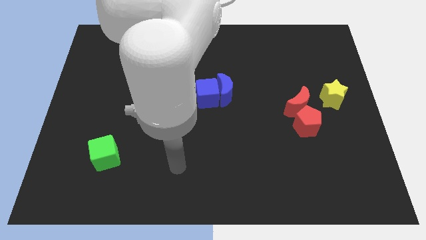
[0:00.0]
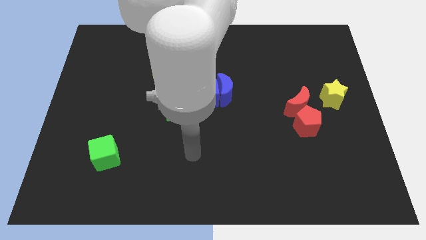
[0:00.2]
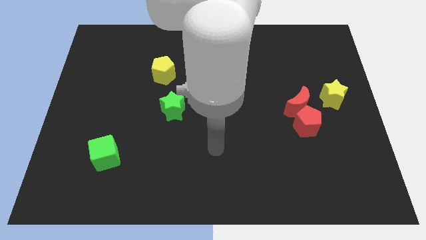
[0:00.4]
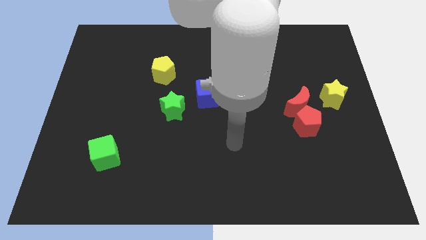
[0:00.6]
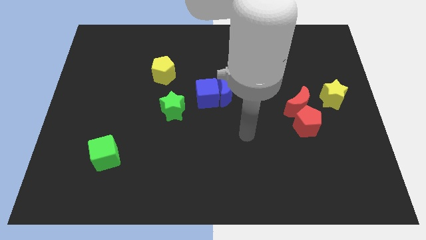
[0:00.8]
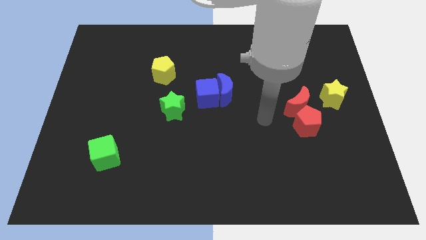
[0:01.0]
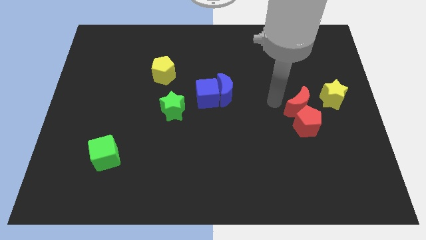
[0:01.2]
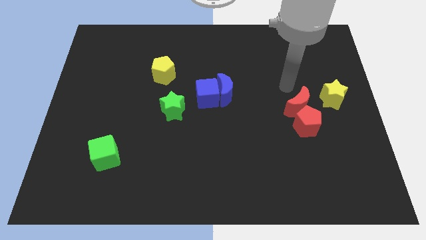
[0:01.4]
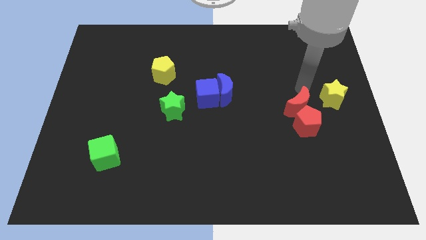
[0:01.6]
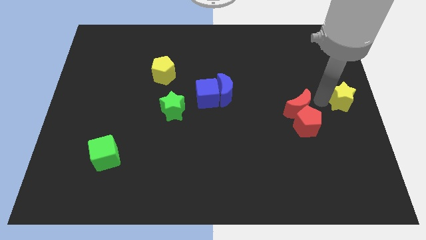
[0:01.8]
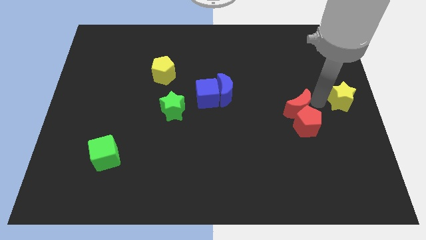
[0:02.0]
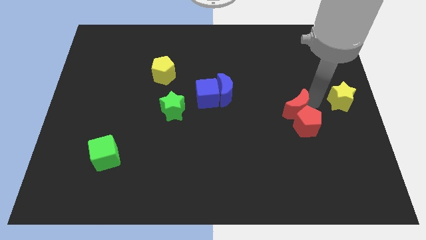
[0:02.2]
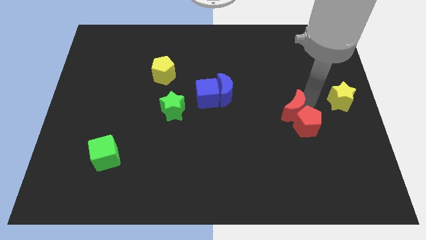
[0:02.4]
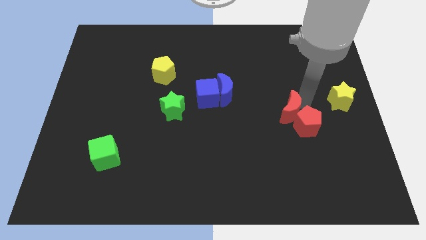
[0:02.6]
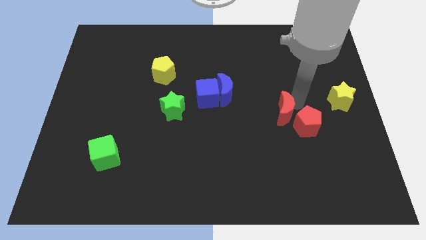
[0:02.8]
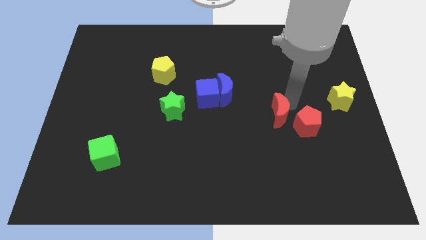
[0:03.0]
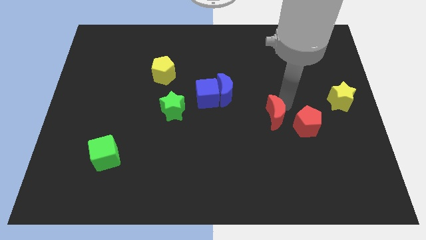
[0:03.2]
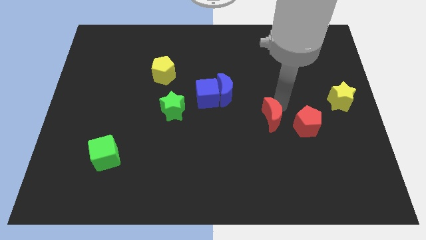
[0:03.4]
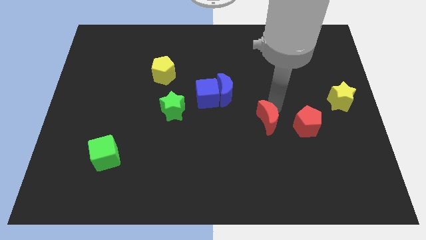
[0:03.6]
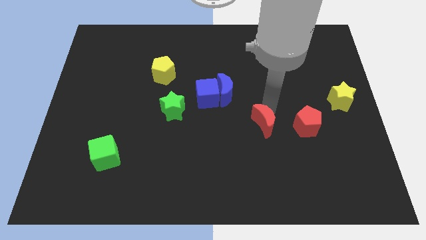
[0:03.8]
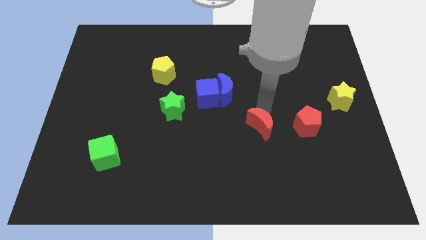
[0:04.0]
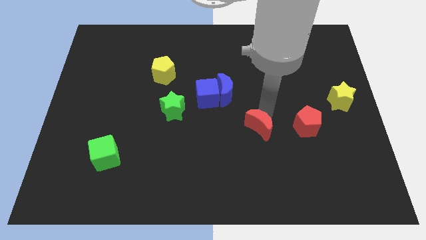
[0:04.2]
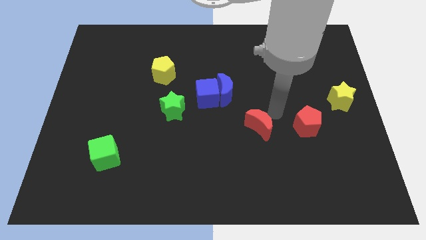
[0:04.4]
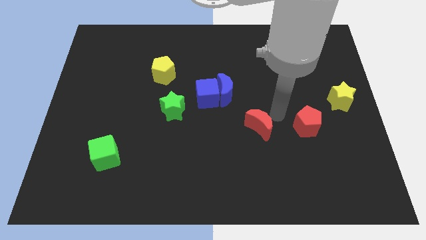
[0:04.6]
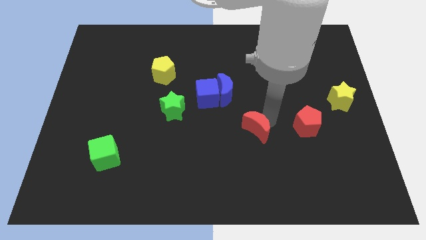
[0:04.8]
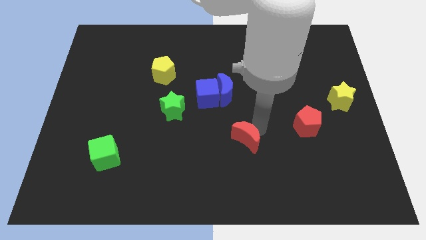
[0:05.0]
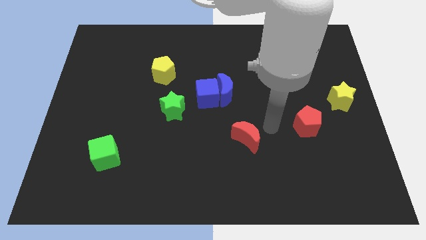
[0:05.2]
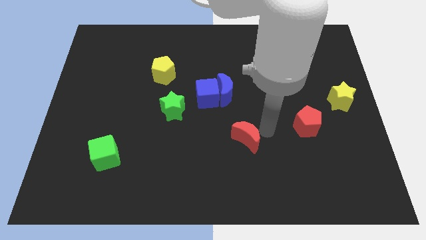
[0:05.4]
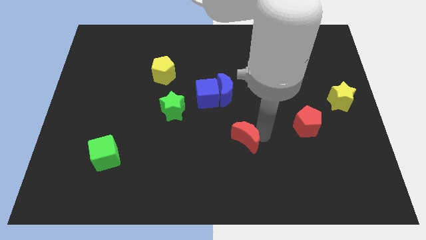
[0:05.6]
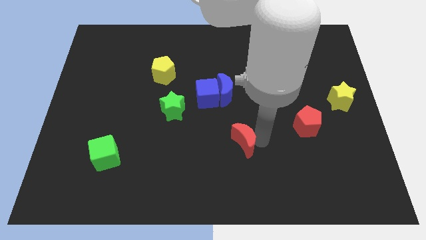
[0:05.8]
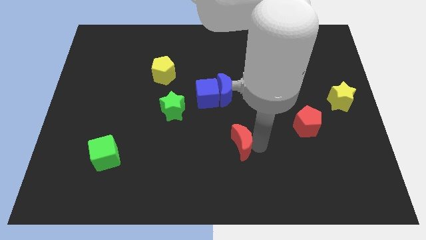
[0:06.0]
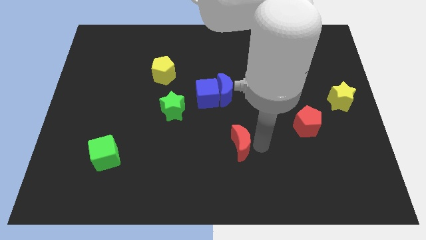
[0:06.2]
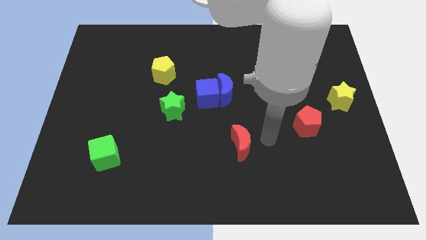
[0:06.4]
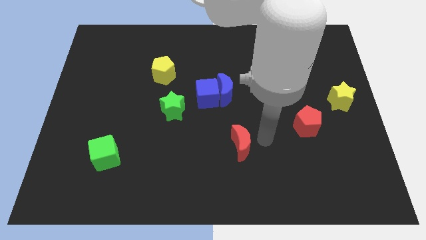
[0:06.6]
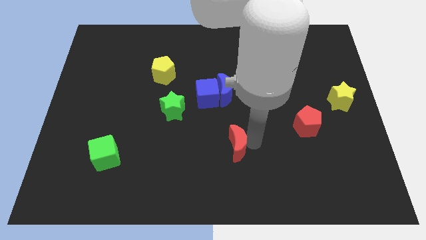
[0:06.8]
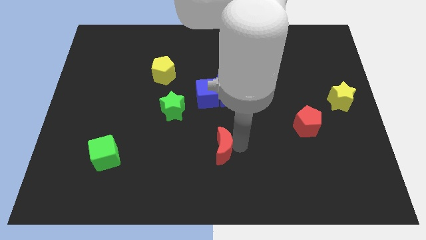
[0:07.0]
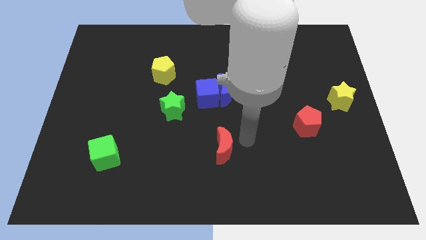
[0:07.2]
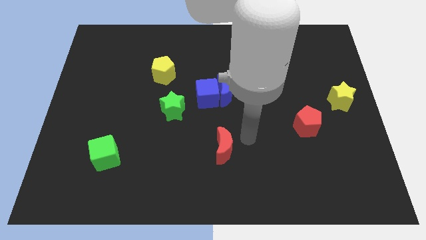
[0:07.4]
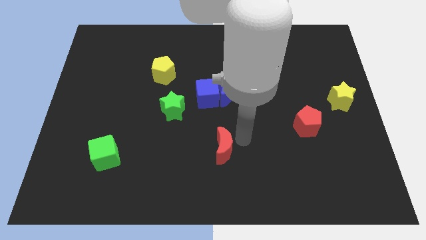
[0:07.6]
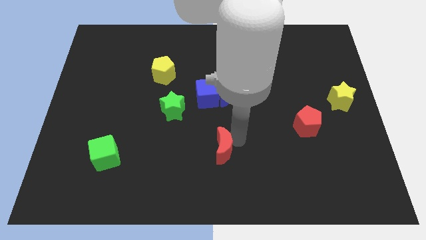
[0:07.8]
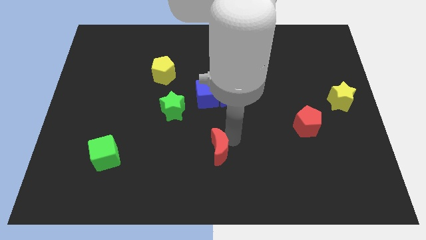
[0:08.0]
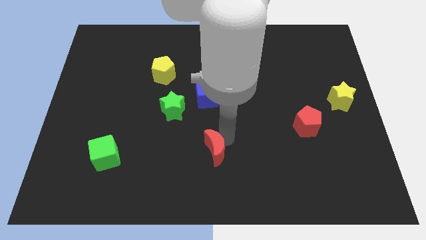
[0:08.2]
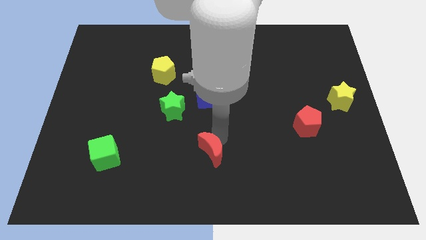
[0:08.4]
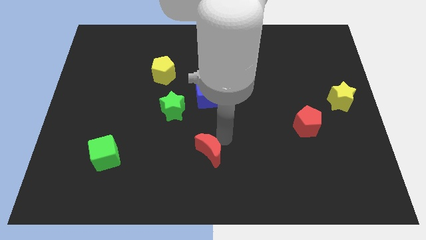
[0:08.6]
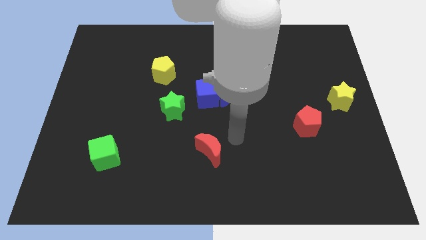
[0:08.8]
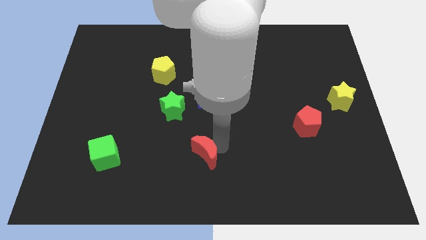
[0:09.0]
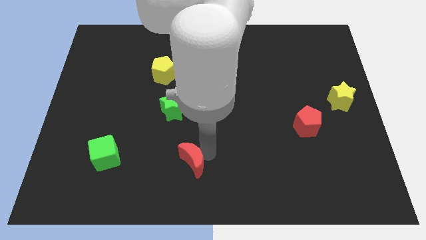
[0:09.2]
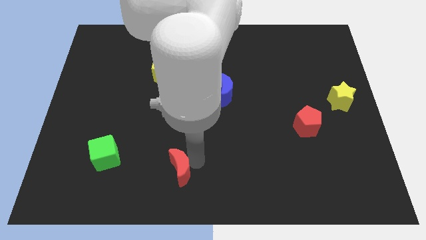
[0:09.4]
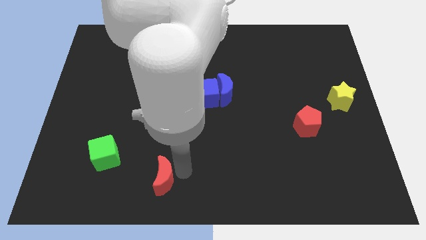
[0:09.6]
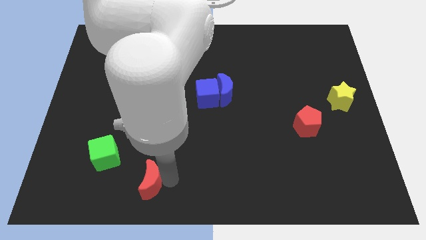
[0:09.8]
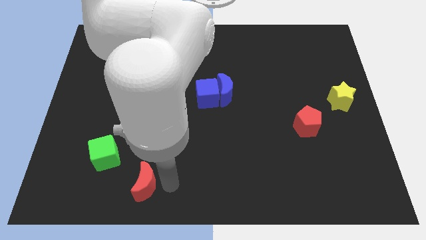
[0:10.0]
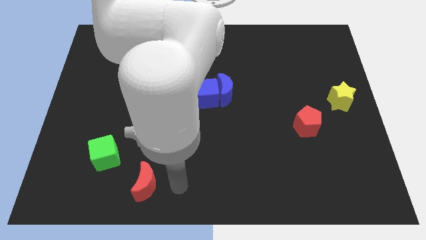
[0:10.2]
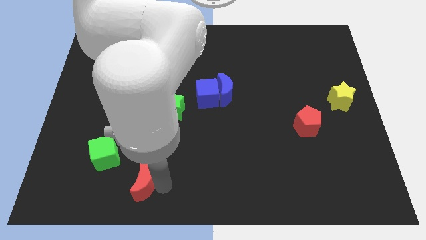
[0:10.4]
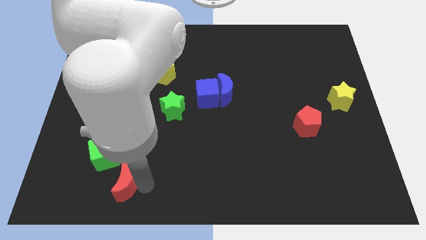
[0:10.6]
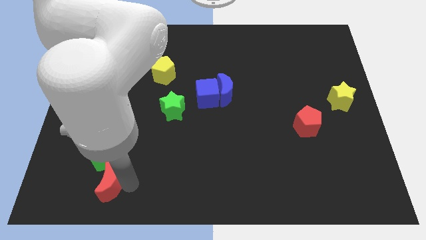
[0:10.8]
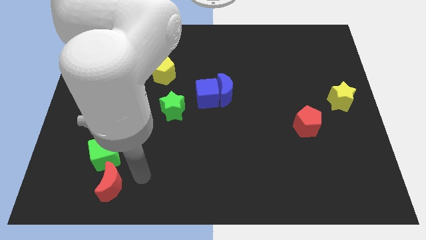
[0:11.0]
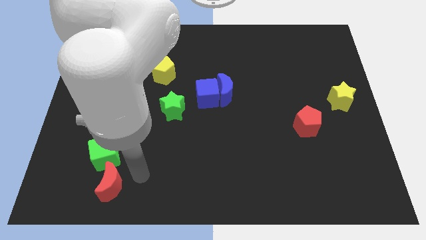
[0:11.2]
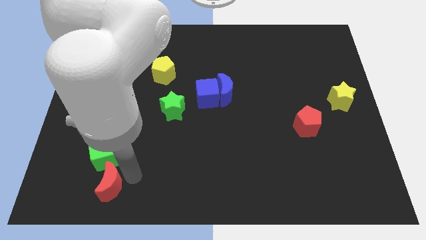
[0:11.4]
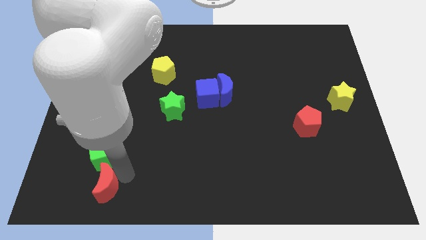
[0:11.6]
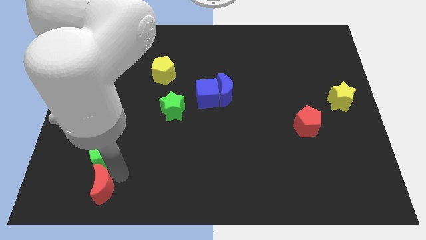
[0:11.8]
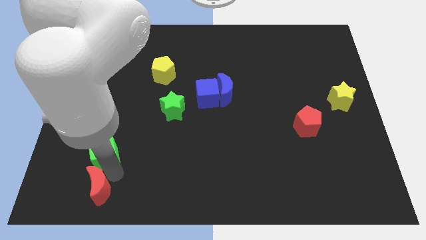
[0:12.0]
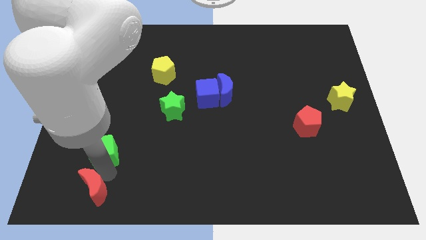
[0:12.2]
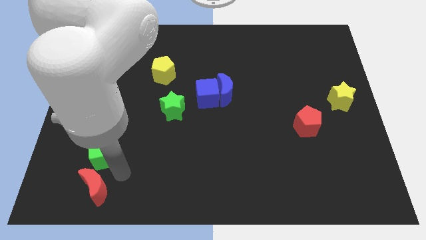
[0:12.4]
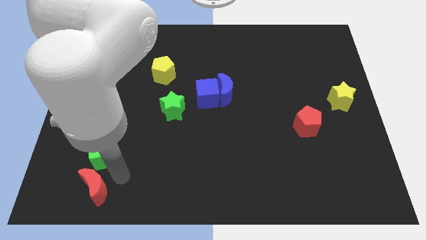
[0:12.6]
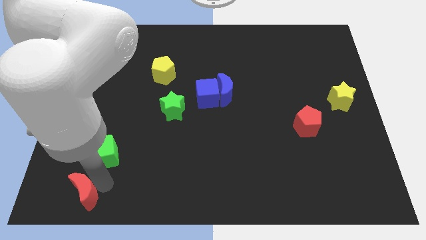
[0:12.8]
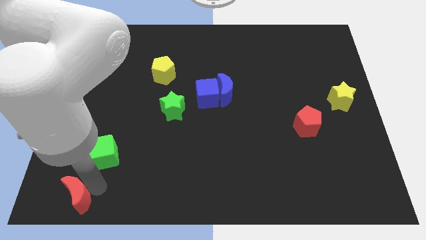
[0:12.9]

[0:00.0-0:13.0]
slide the red moon to the bottom left corner

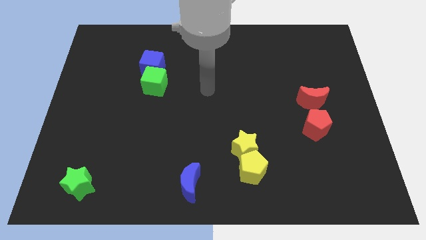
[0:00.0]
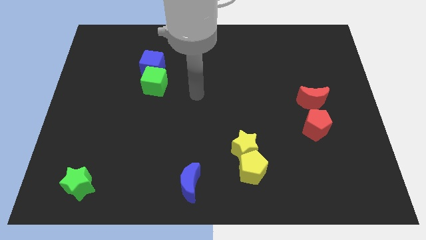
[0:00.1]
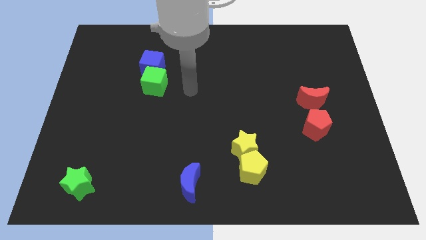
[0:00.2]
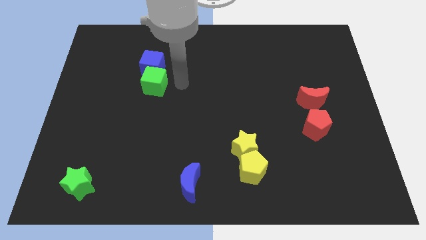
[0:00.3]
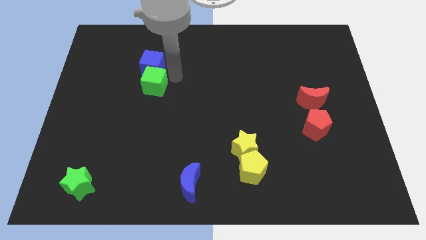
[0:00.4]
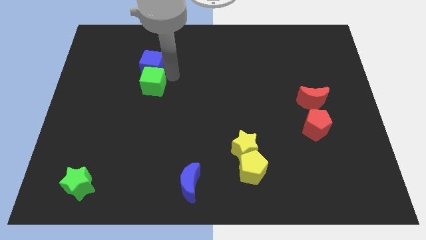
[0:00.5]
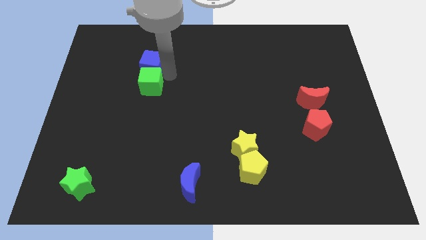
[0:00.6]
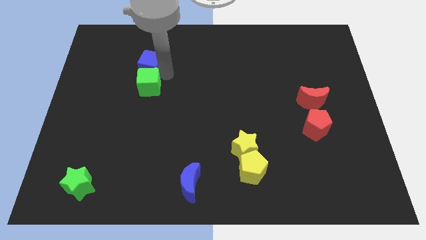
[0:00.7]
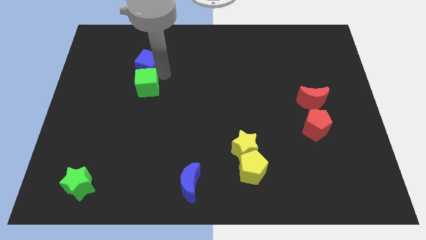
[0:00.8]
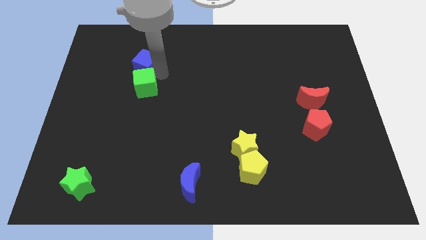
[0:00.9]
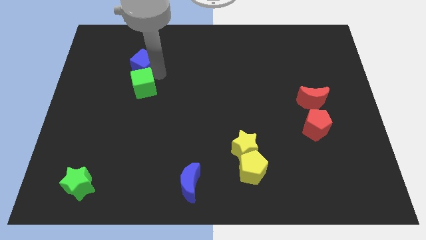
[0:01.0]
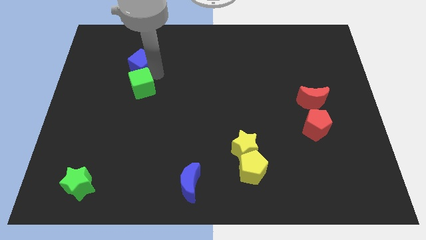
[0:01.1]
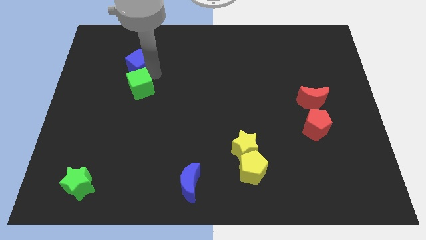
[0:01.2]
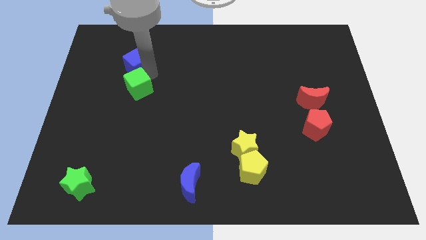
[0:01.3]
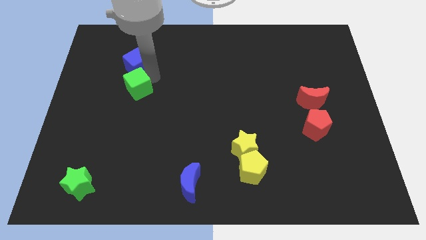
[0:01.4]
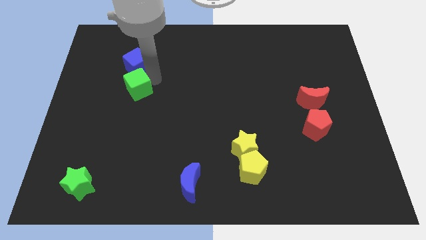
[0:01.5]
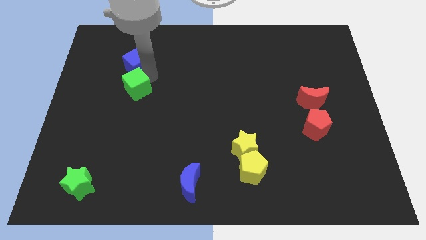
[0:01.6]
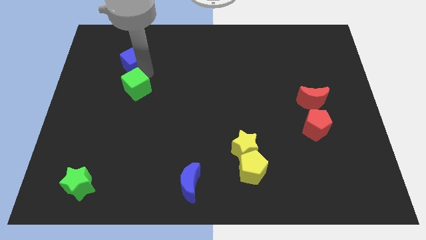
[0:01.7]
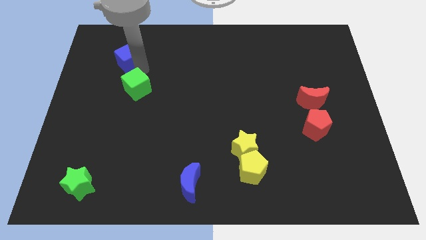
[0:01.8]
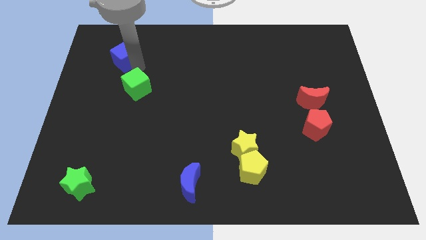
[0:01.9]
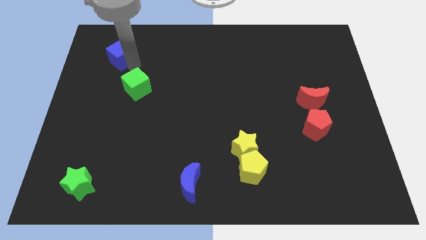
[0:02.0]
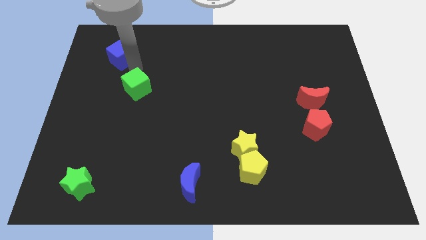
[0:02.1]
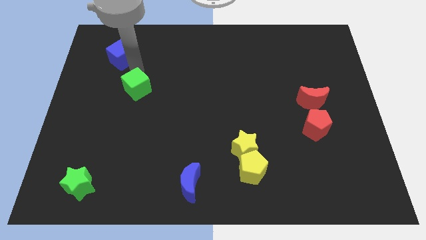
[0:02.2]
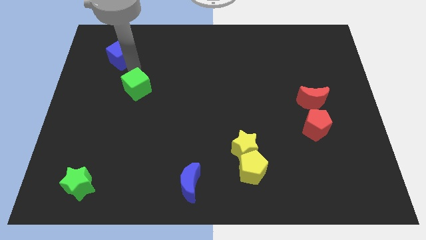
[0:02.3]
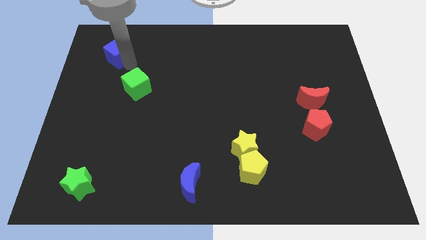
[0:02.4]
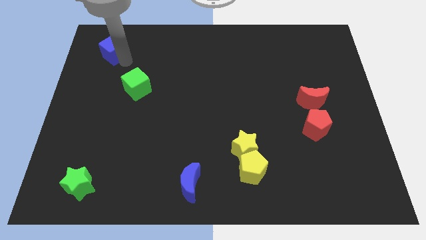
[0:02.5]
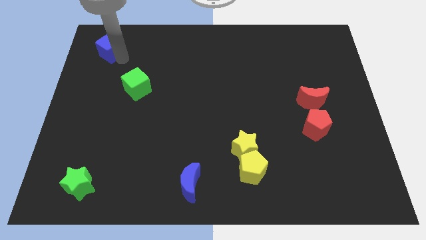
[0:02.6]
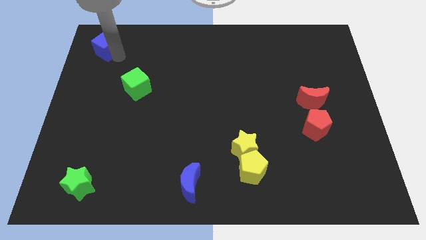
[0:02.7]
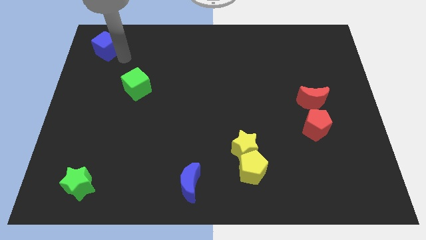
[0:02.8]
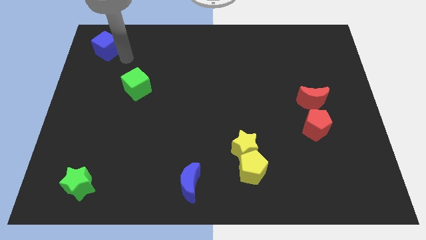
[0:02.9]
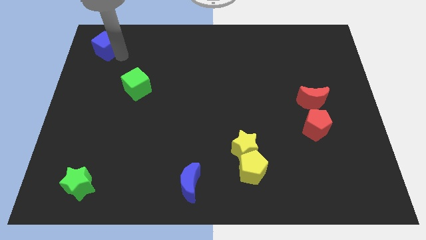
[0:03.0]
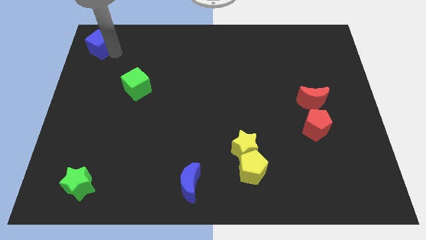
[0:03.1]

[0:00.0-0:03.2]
move the blue cube to the top left of the board
